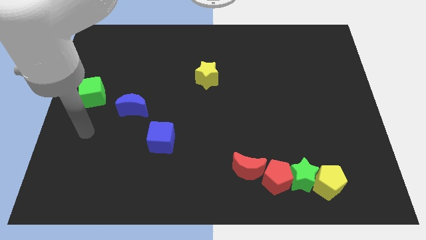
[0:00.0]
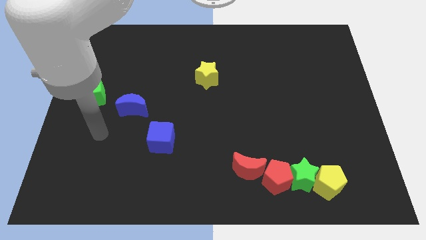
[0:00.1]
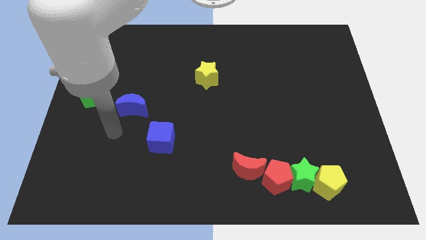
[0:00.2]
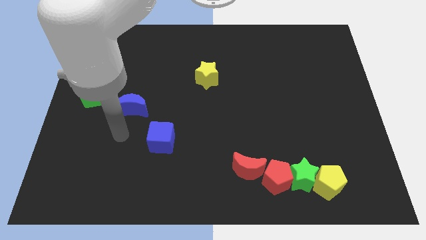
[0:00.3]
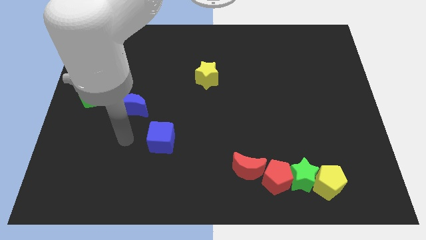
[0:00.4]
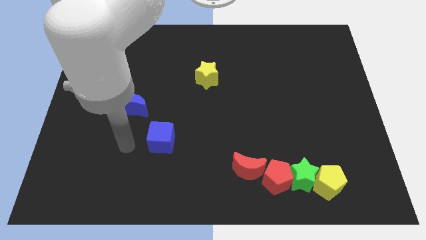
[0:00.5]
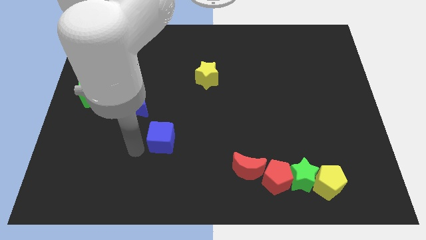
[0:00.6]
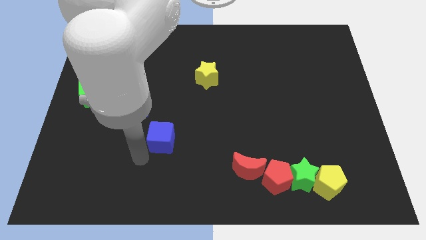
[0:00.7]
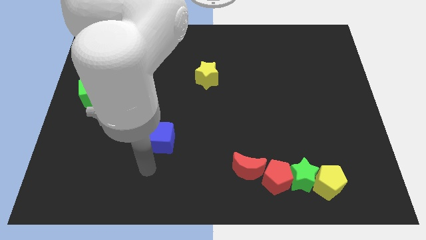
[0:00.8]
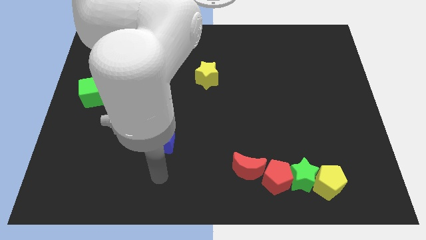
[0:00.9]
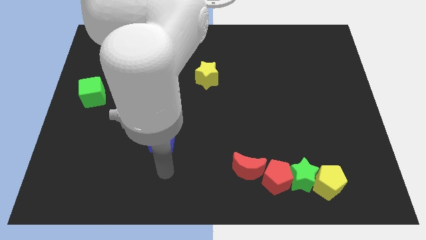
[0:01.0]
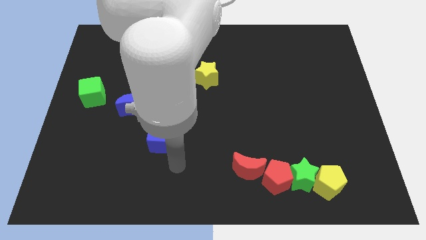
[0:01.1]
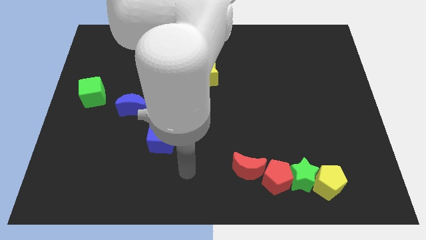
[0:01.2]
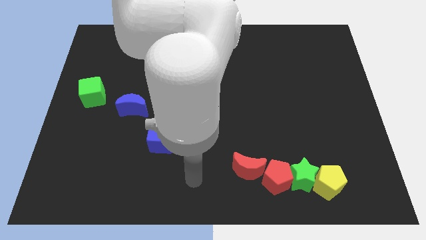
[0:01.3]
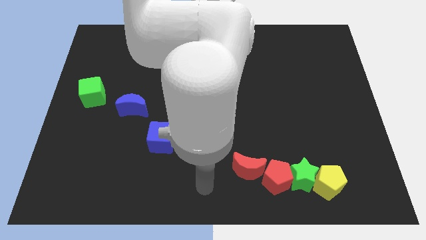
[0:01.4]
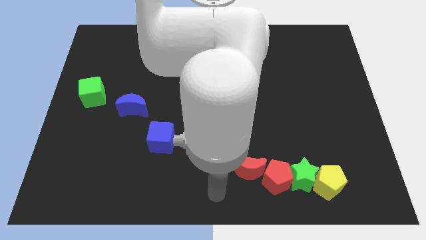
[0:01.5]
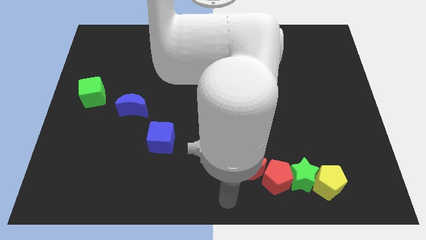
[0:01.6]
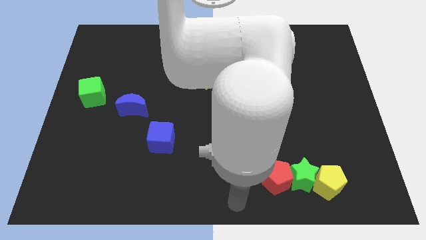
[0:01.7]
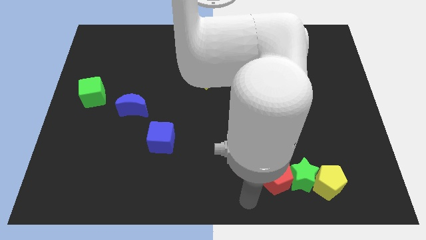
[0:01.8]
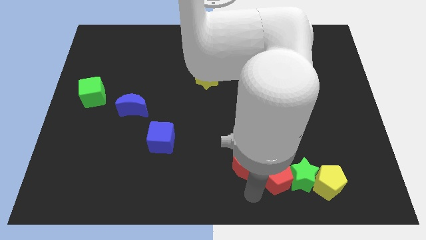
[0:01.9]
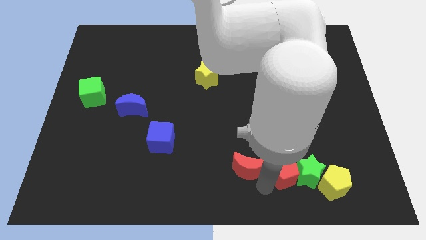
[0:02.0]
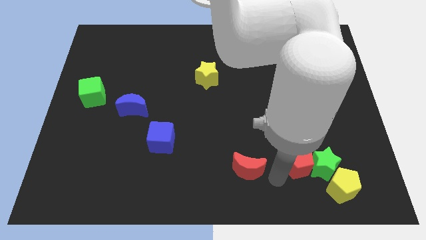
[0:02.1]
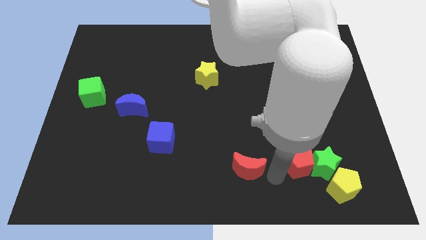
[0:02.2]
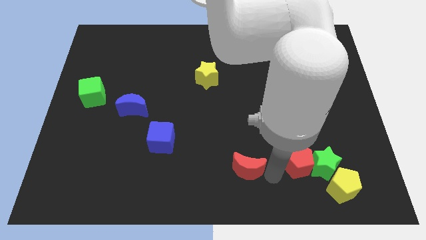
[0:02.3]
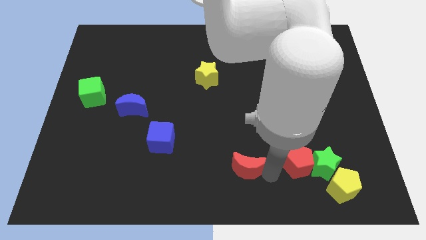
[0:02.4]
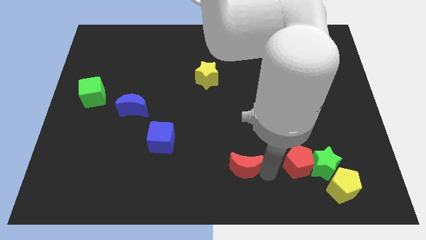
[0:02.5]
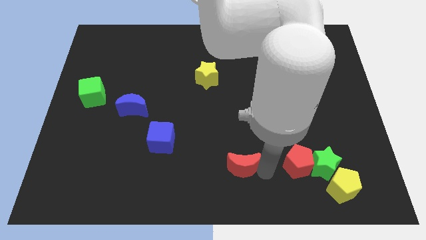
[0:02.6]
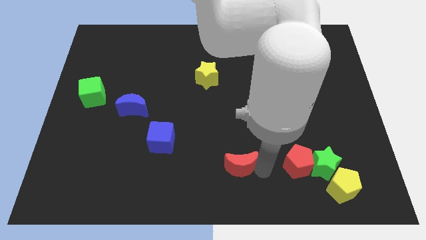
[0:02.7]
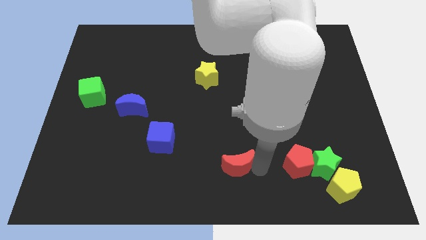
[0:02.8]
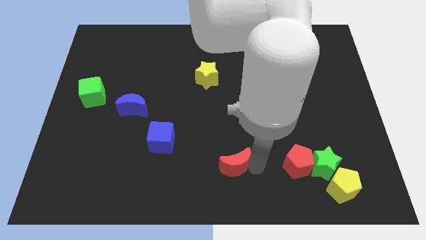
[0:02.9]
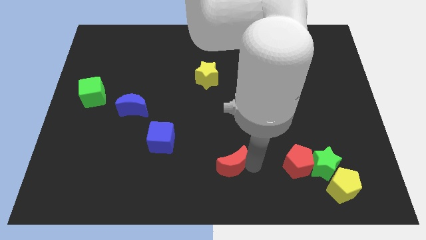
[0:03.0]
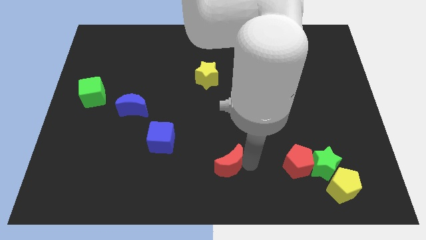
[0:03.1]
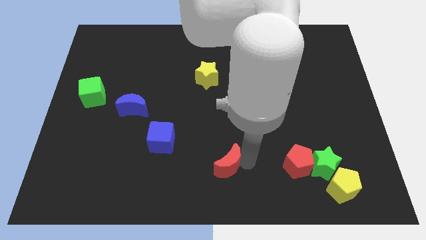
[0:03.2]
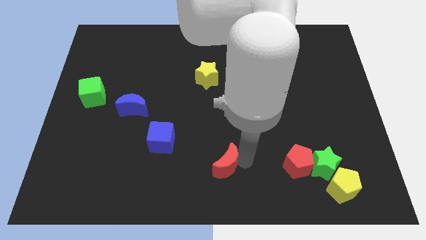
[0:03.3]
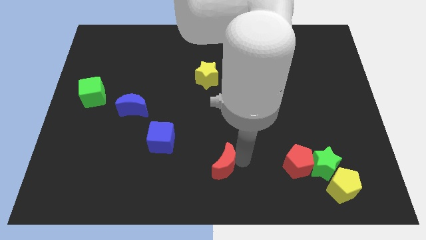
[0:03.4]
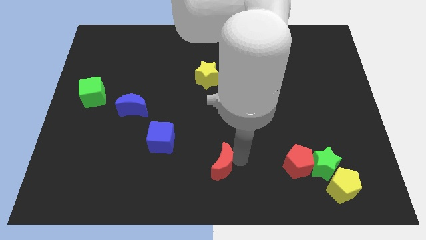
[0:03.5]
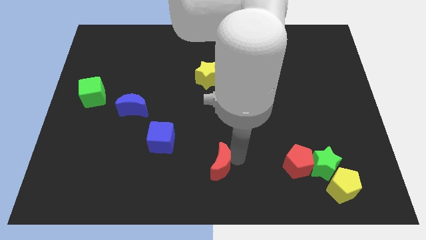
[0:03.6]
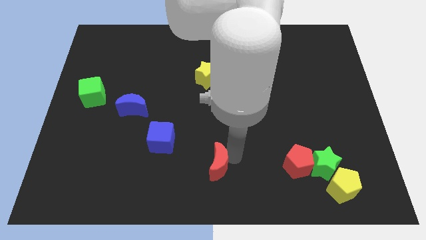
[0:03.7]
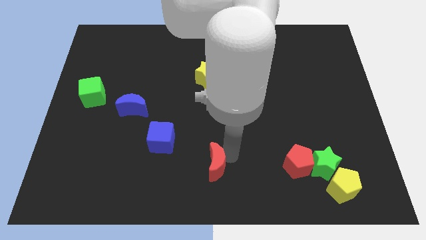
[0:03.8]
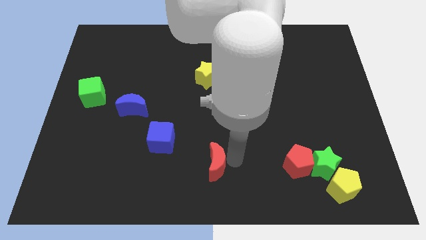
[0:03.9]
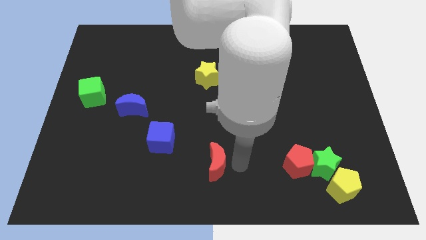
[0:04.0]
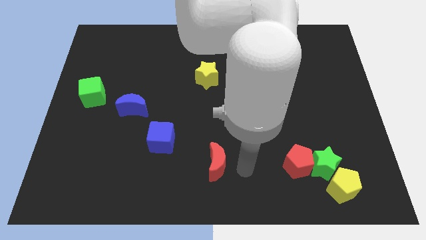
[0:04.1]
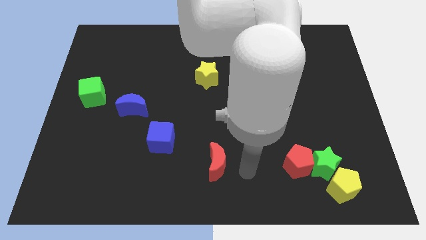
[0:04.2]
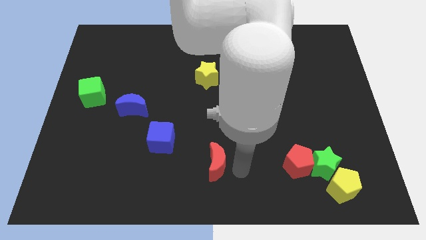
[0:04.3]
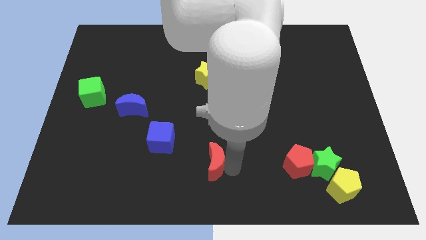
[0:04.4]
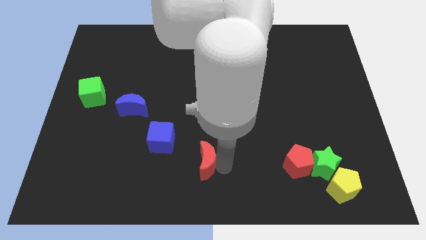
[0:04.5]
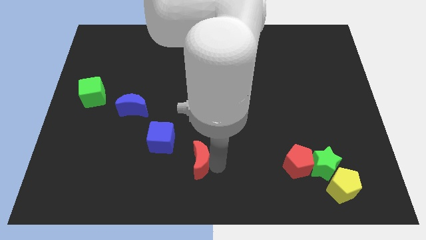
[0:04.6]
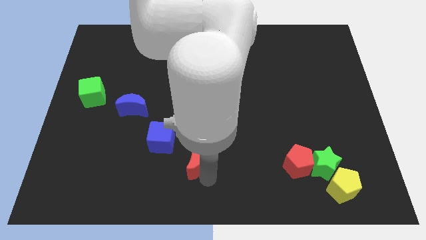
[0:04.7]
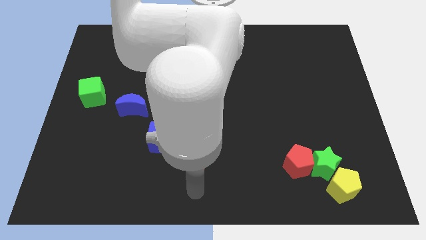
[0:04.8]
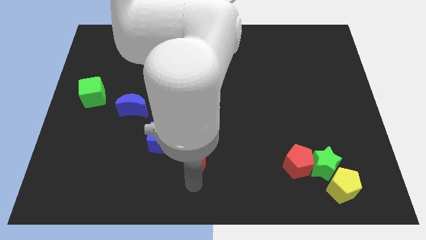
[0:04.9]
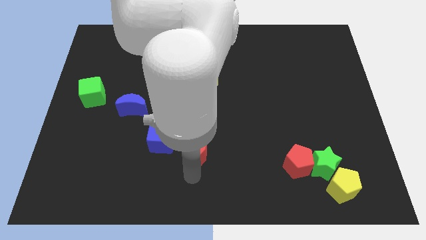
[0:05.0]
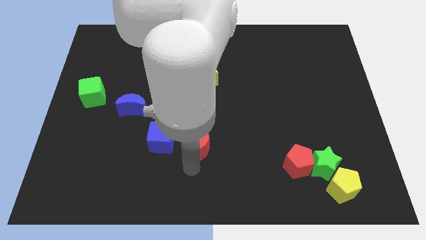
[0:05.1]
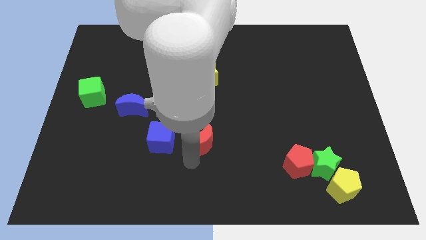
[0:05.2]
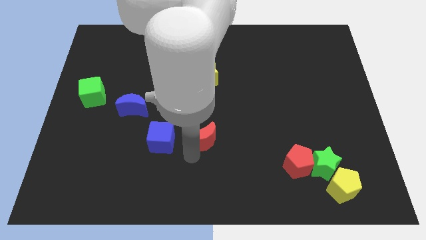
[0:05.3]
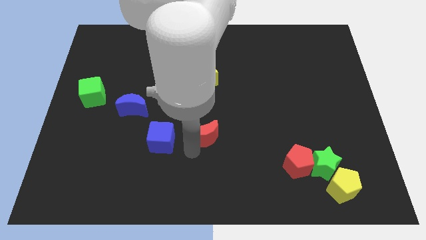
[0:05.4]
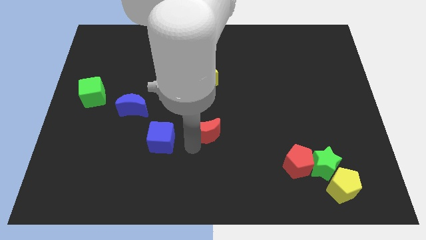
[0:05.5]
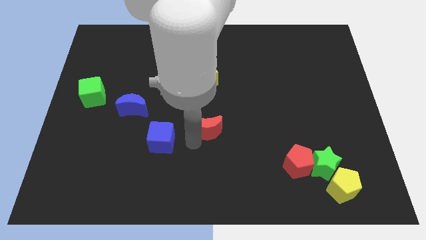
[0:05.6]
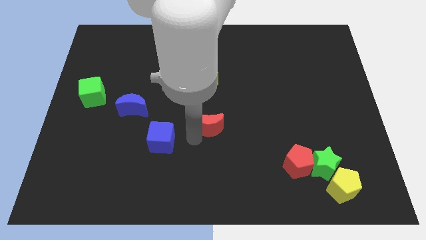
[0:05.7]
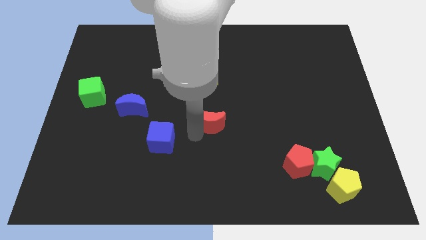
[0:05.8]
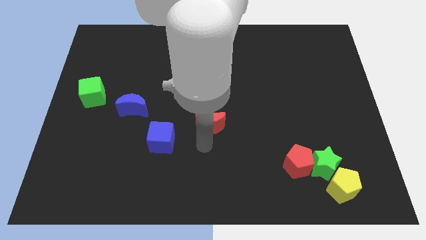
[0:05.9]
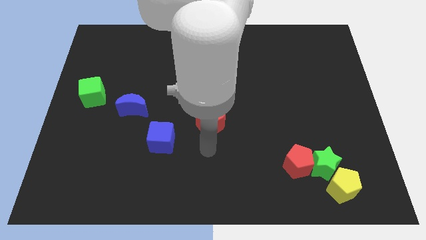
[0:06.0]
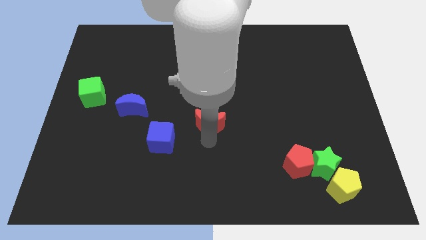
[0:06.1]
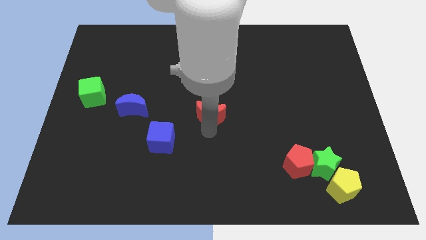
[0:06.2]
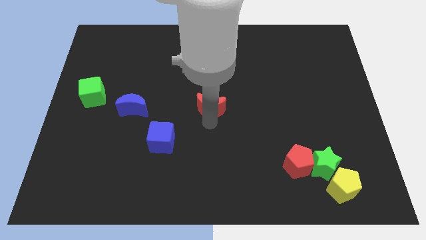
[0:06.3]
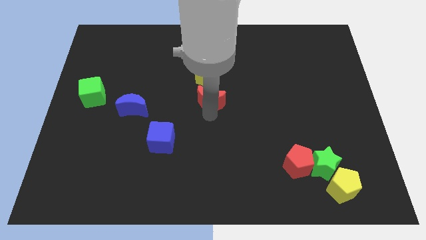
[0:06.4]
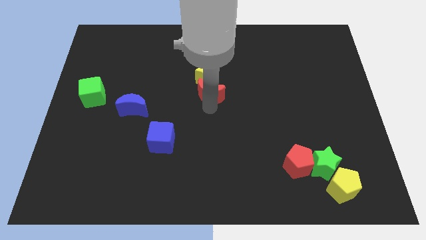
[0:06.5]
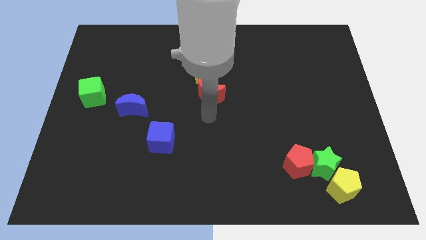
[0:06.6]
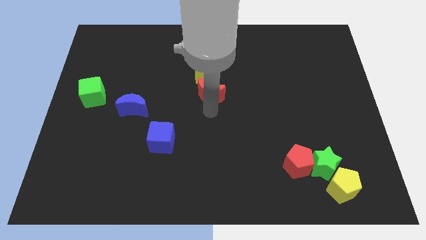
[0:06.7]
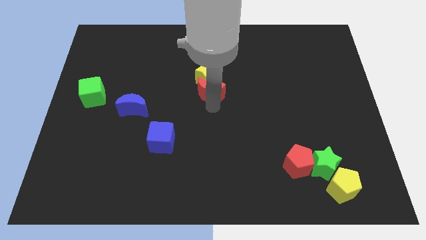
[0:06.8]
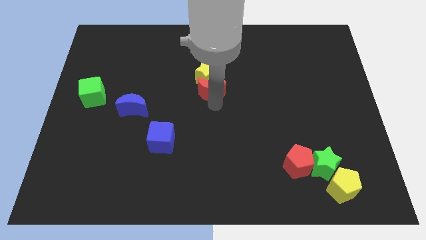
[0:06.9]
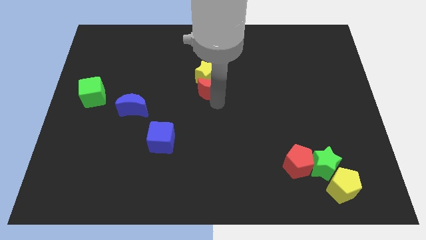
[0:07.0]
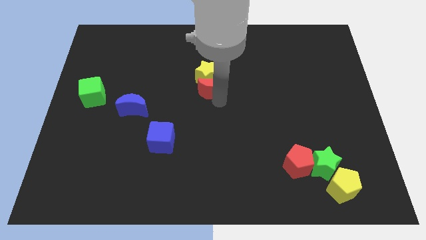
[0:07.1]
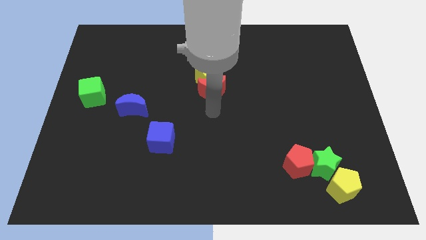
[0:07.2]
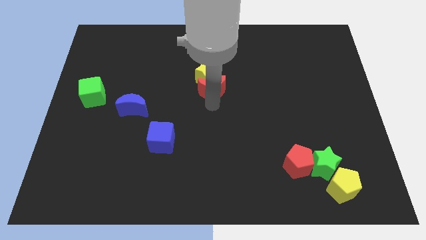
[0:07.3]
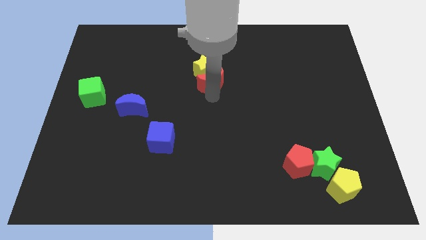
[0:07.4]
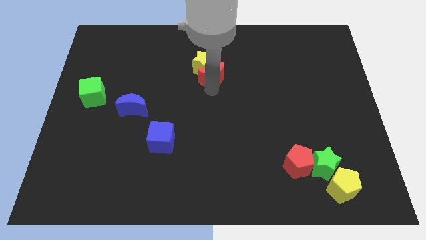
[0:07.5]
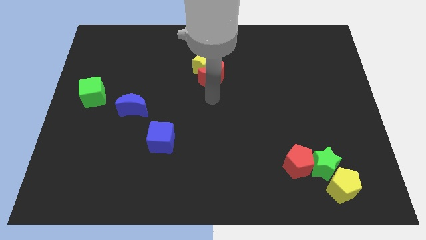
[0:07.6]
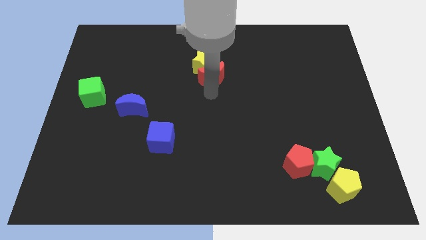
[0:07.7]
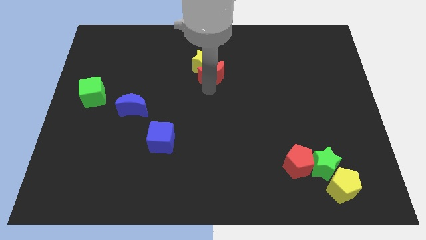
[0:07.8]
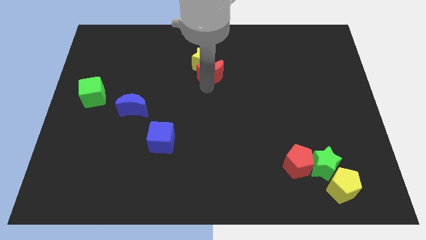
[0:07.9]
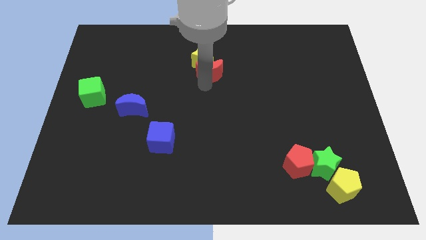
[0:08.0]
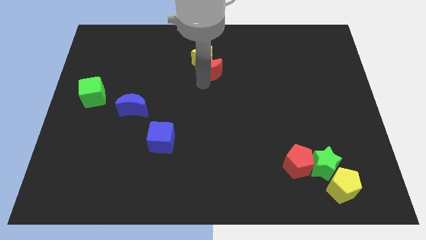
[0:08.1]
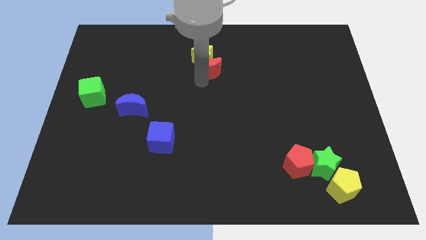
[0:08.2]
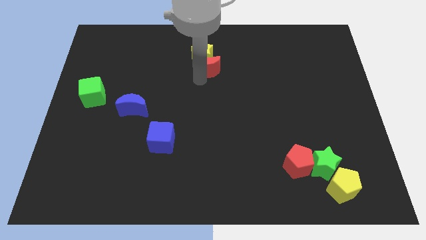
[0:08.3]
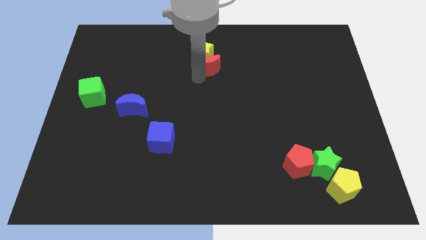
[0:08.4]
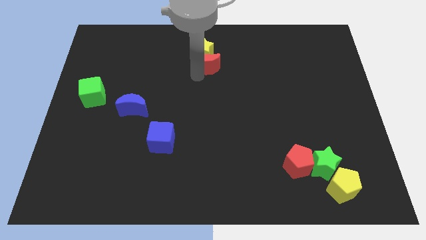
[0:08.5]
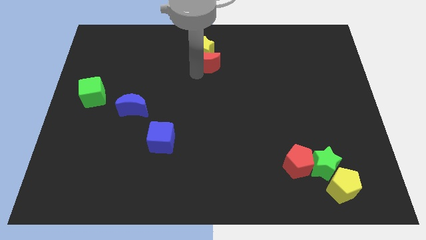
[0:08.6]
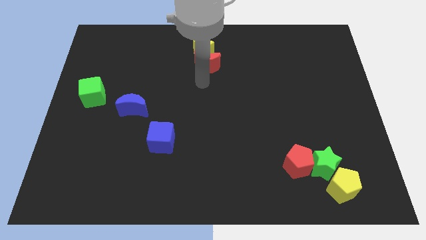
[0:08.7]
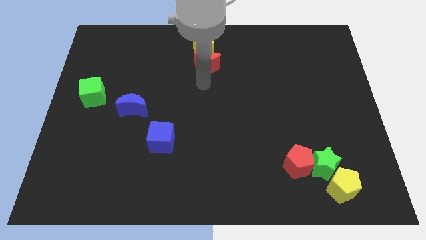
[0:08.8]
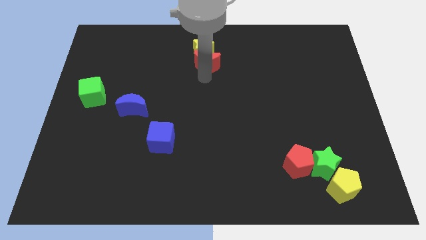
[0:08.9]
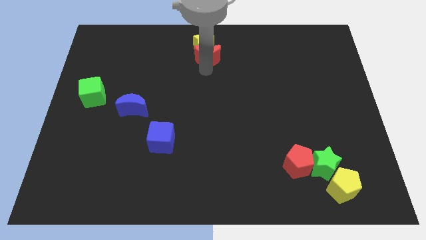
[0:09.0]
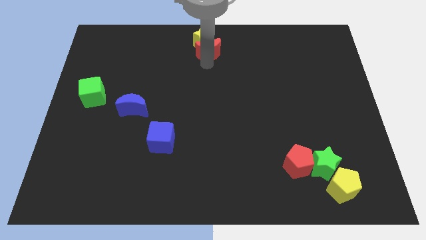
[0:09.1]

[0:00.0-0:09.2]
move the red moon to the top
